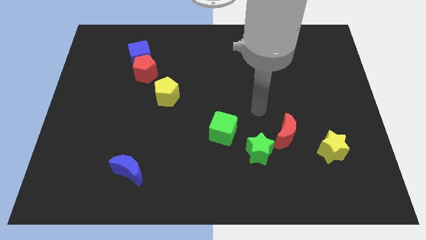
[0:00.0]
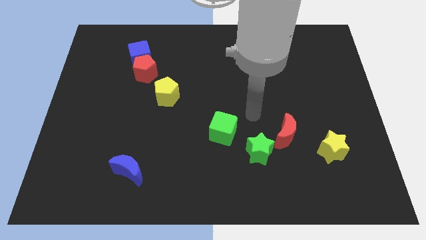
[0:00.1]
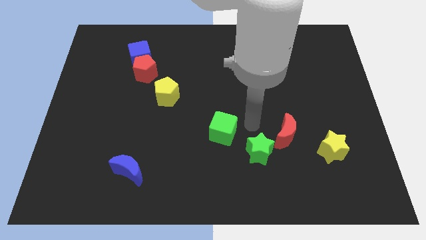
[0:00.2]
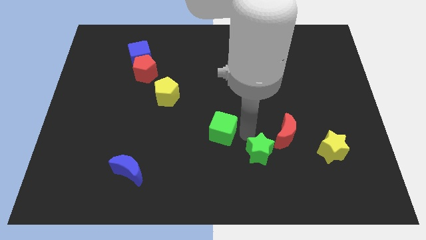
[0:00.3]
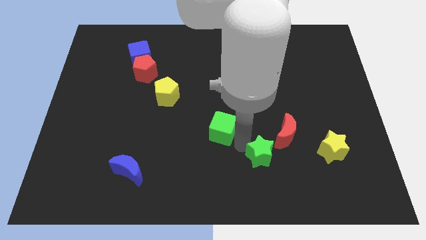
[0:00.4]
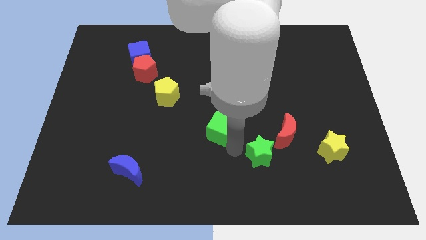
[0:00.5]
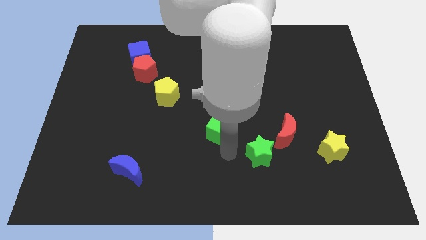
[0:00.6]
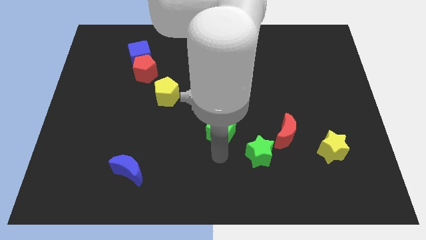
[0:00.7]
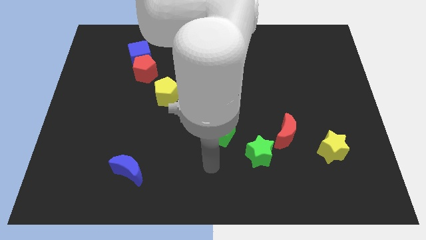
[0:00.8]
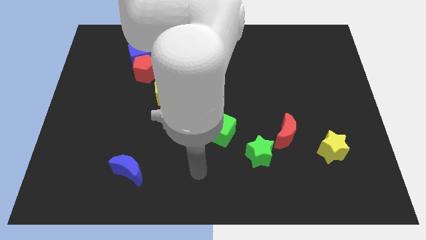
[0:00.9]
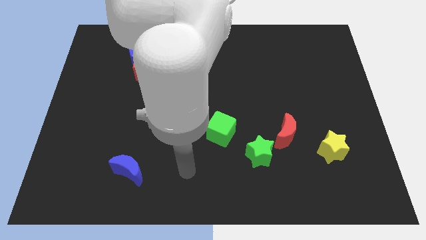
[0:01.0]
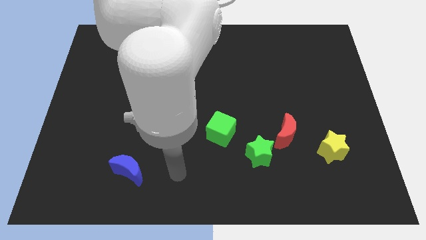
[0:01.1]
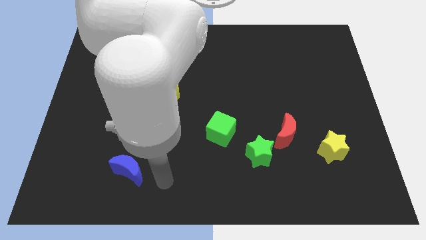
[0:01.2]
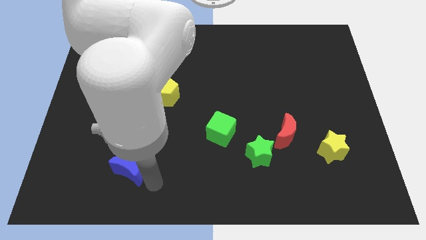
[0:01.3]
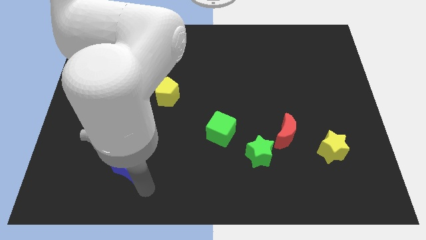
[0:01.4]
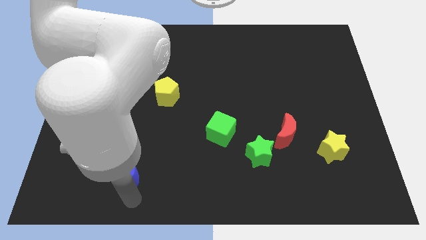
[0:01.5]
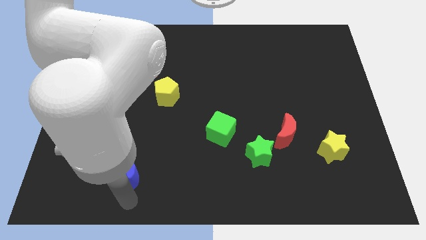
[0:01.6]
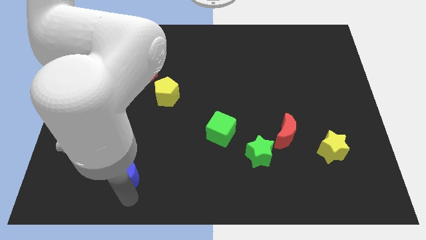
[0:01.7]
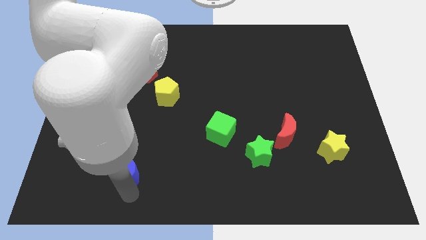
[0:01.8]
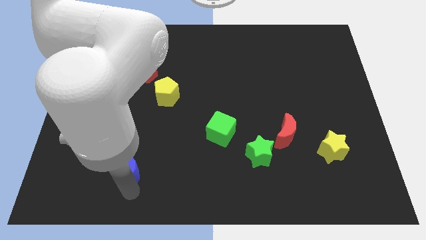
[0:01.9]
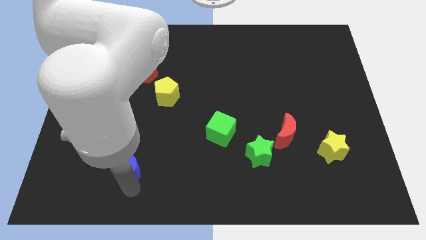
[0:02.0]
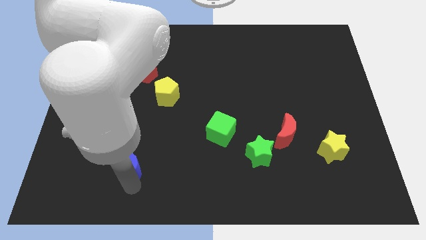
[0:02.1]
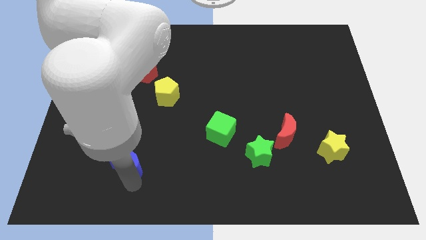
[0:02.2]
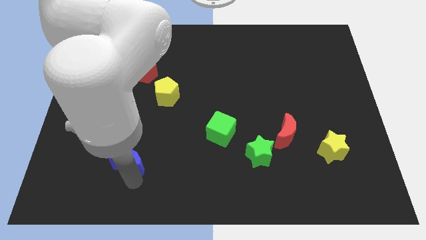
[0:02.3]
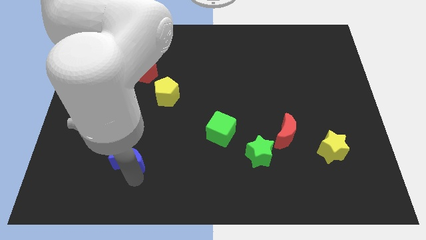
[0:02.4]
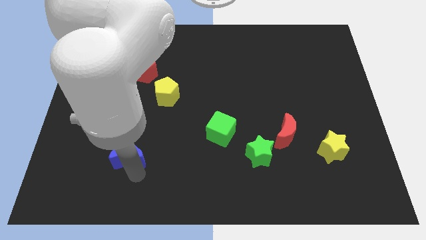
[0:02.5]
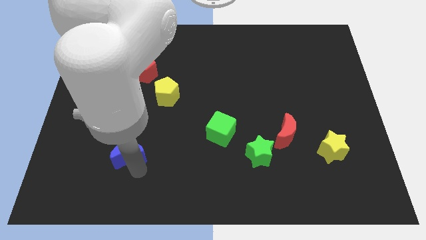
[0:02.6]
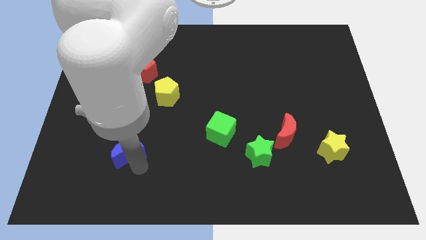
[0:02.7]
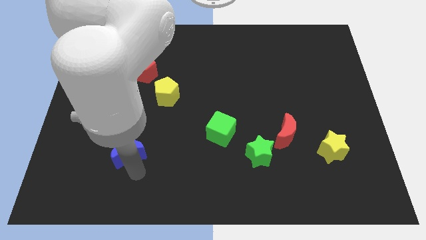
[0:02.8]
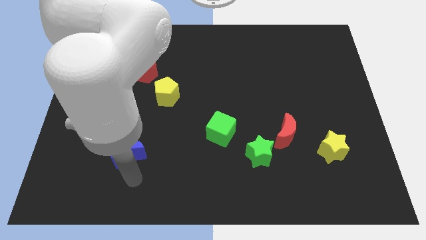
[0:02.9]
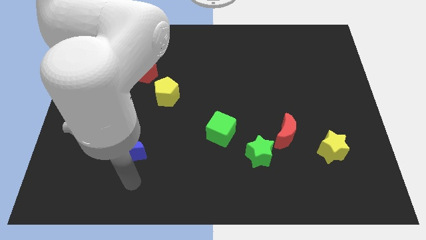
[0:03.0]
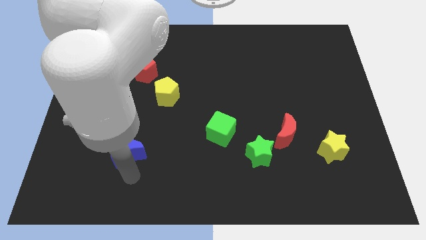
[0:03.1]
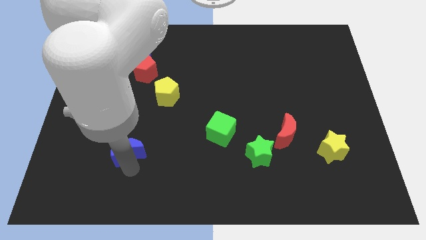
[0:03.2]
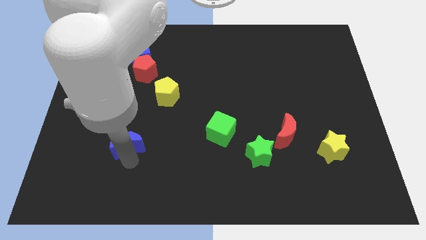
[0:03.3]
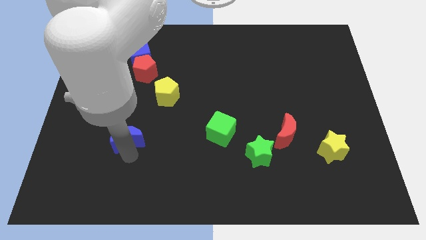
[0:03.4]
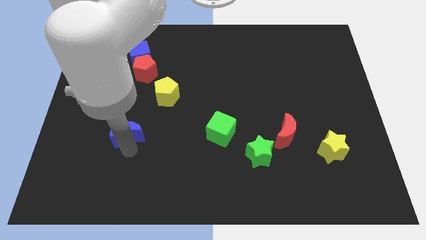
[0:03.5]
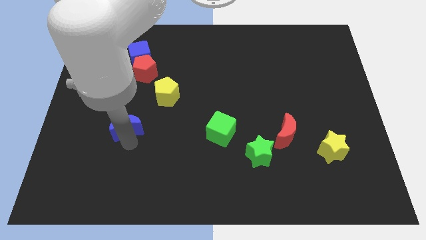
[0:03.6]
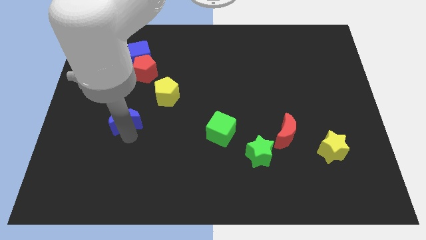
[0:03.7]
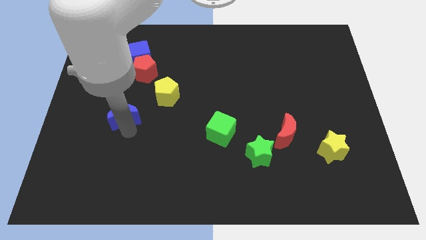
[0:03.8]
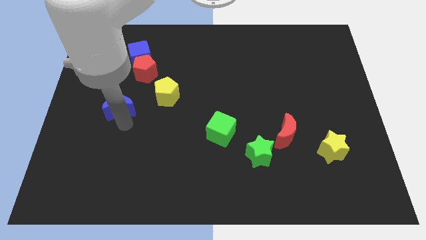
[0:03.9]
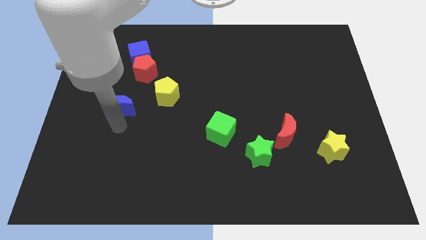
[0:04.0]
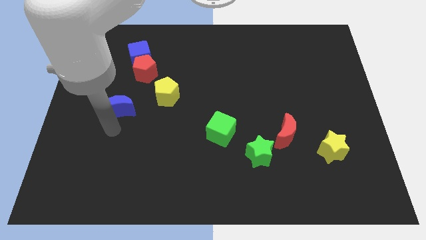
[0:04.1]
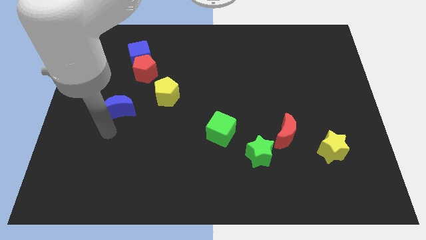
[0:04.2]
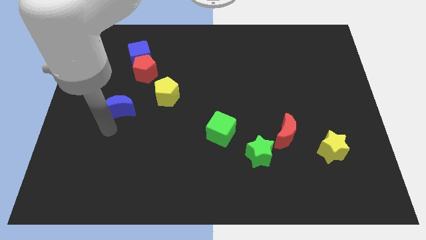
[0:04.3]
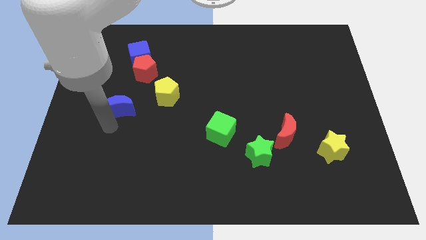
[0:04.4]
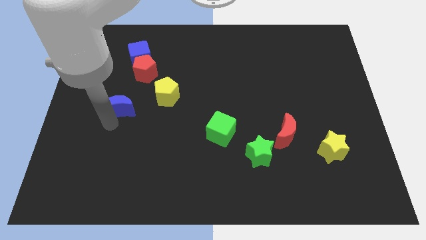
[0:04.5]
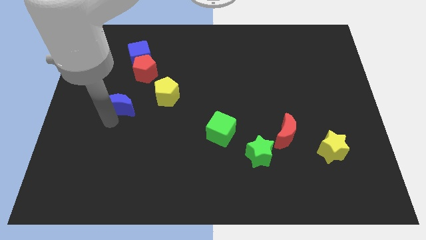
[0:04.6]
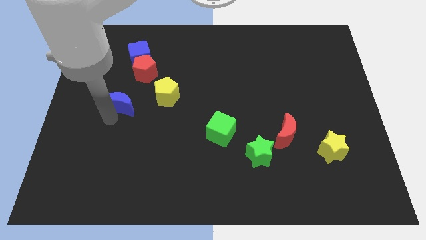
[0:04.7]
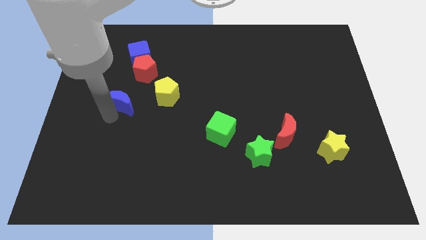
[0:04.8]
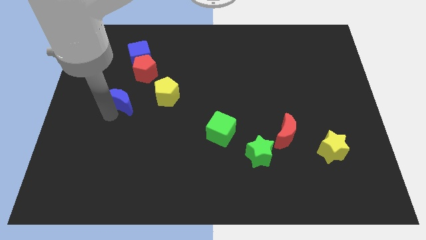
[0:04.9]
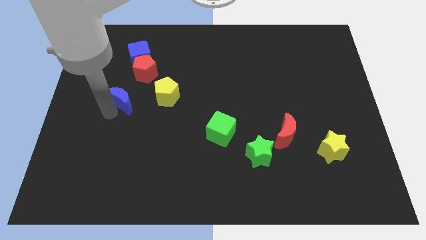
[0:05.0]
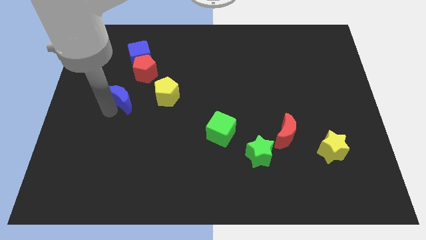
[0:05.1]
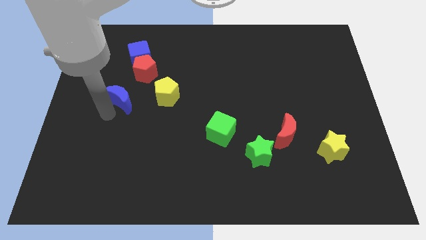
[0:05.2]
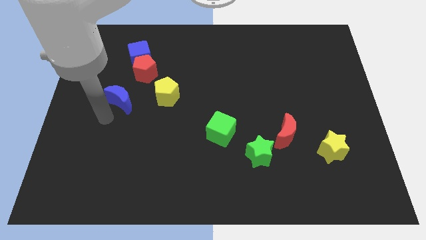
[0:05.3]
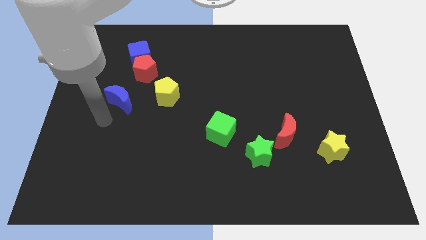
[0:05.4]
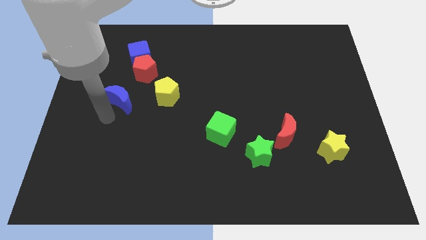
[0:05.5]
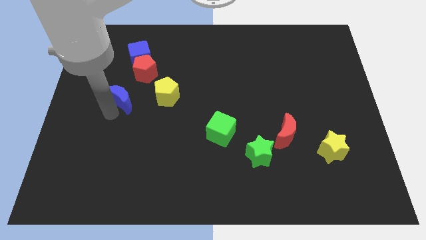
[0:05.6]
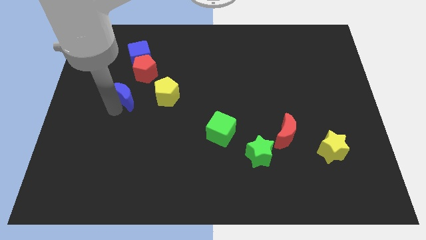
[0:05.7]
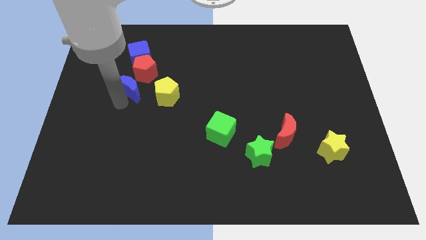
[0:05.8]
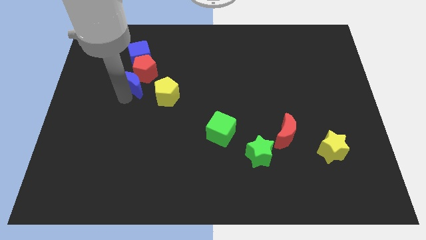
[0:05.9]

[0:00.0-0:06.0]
push the blue moon close to the red pentagon

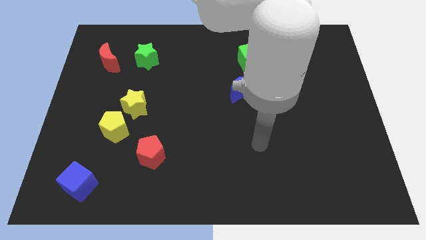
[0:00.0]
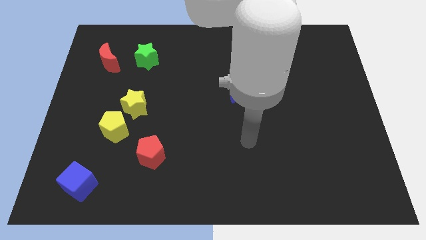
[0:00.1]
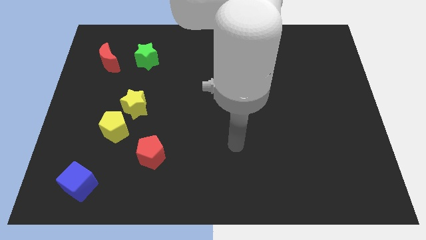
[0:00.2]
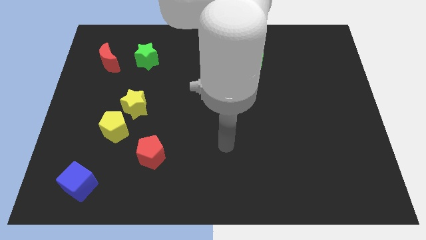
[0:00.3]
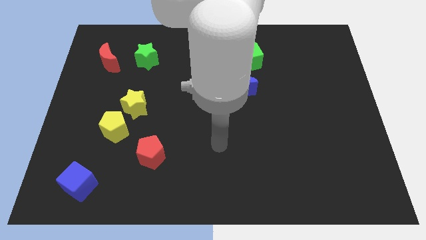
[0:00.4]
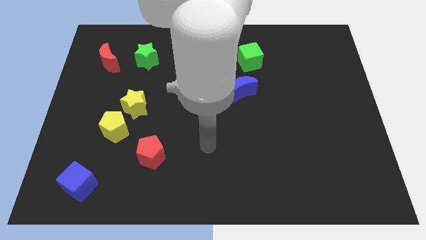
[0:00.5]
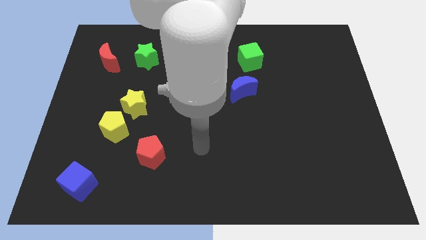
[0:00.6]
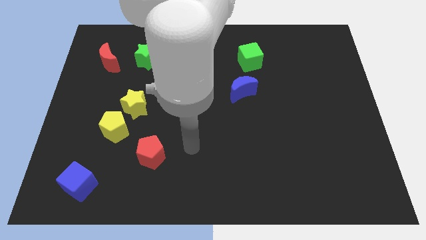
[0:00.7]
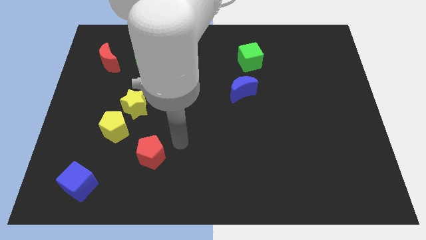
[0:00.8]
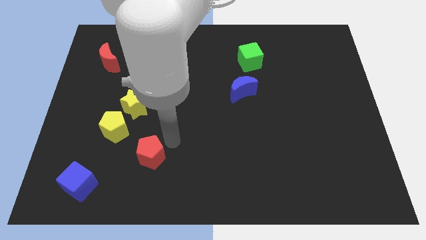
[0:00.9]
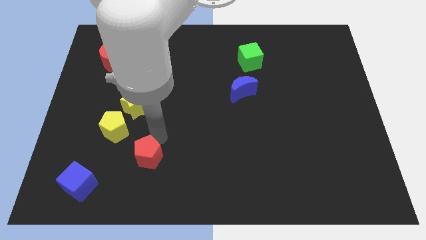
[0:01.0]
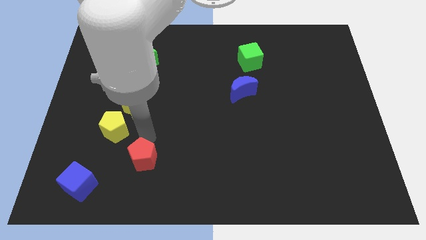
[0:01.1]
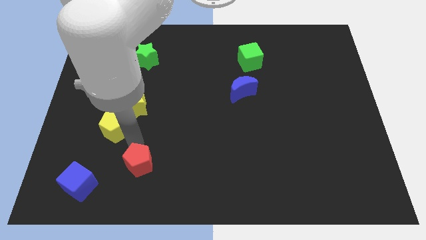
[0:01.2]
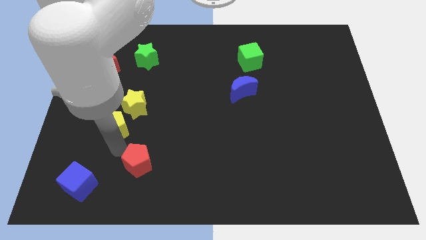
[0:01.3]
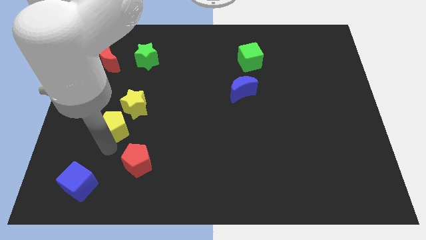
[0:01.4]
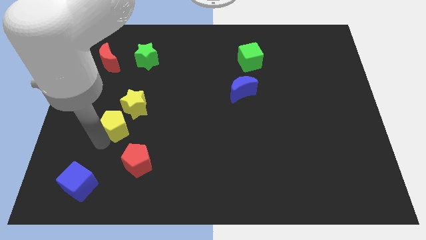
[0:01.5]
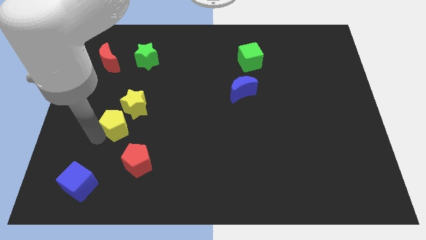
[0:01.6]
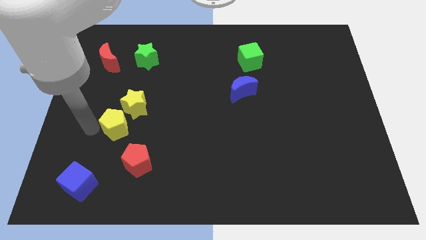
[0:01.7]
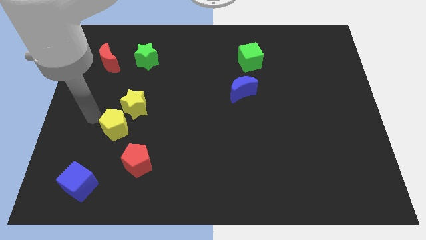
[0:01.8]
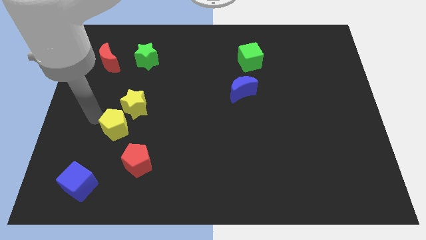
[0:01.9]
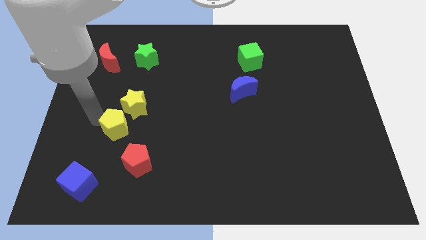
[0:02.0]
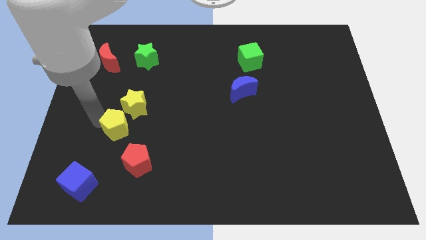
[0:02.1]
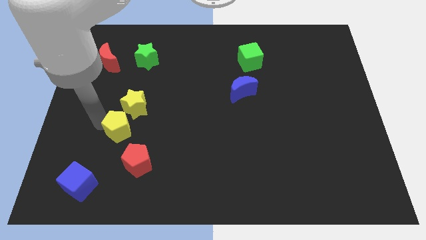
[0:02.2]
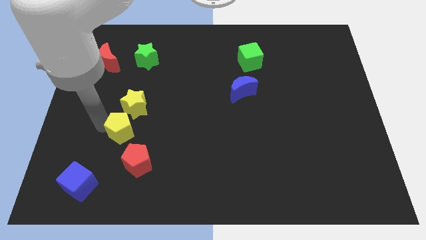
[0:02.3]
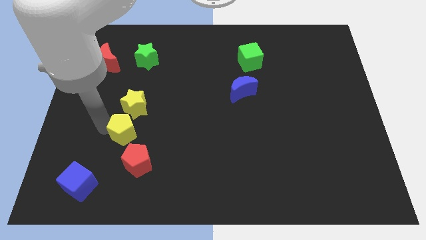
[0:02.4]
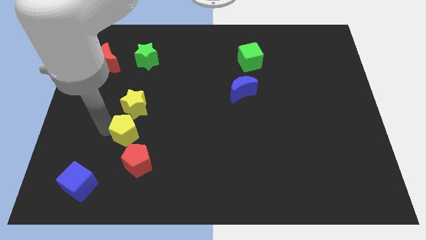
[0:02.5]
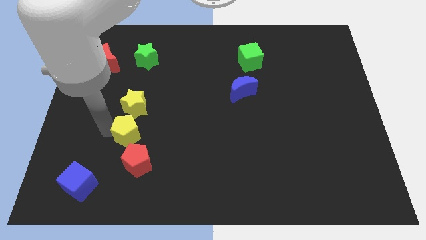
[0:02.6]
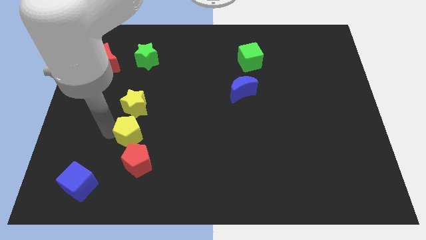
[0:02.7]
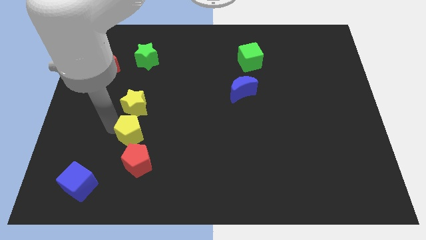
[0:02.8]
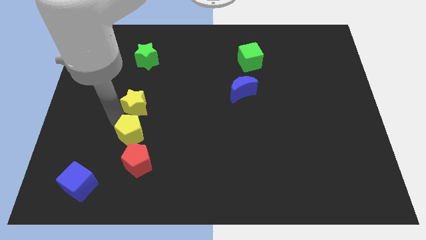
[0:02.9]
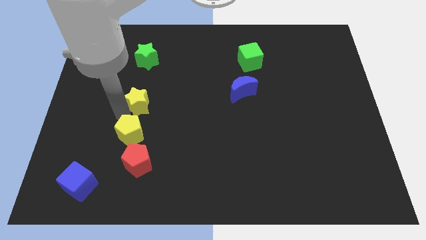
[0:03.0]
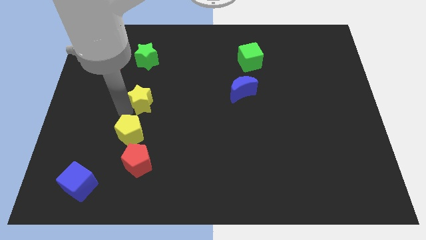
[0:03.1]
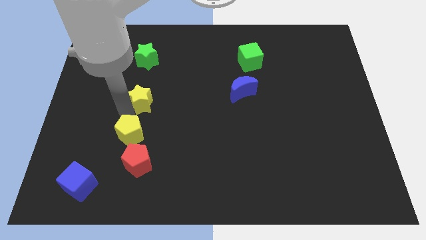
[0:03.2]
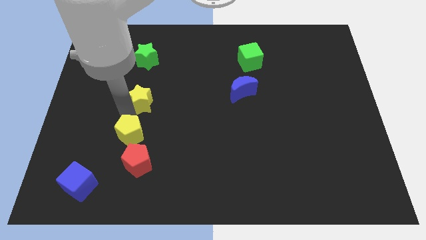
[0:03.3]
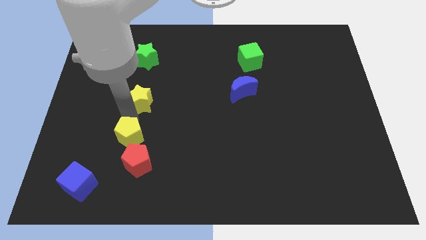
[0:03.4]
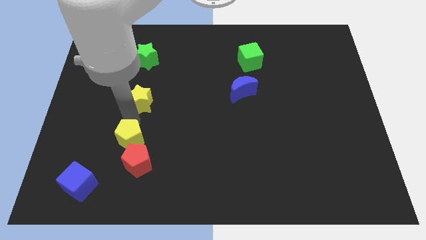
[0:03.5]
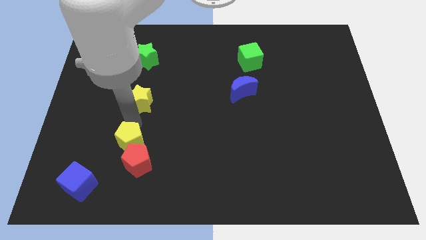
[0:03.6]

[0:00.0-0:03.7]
move the yellow pentagon close to the red pentagon
